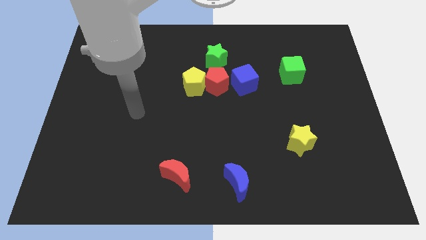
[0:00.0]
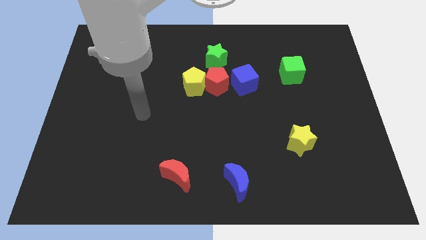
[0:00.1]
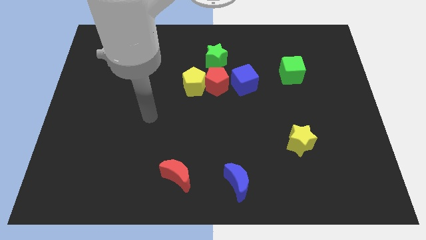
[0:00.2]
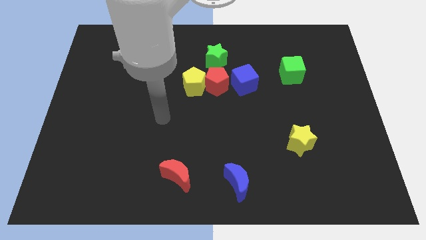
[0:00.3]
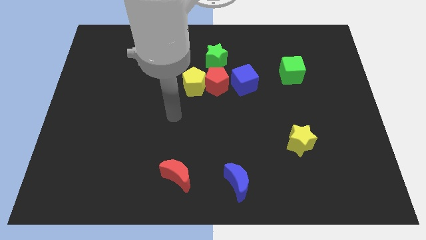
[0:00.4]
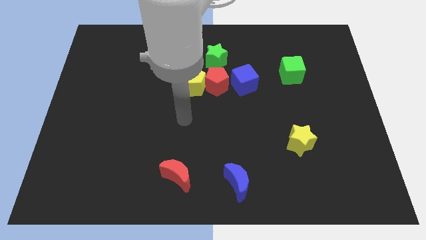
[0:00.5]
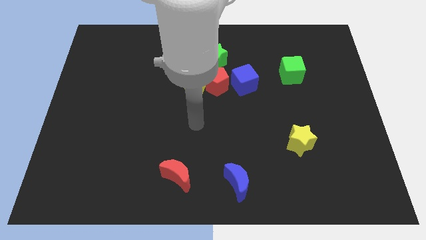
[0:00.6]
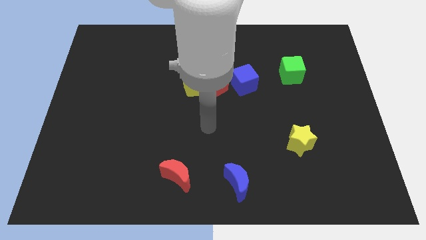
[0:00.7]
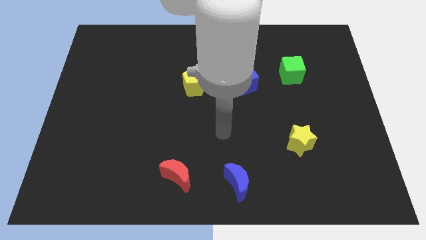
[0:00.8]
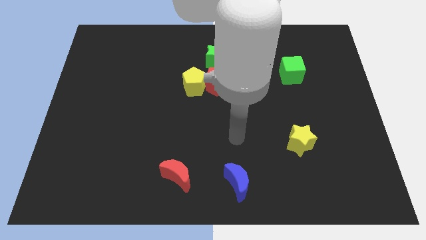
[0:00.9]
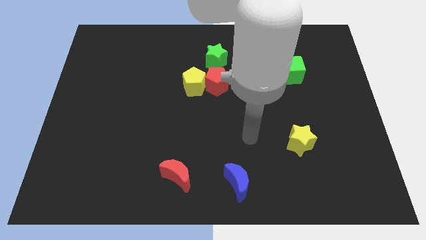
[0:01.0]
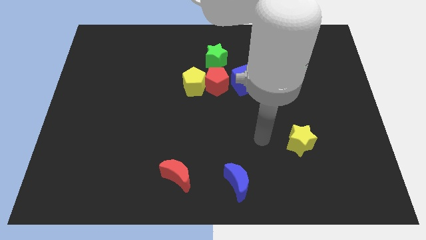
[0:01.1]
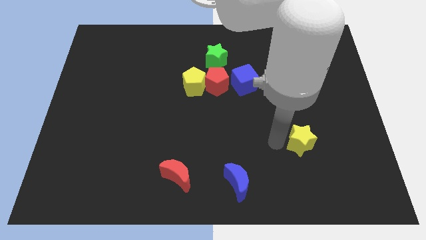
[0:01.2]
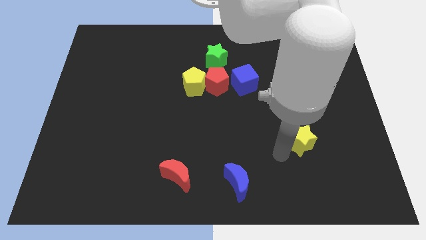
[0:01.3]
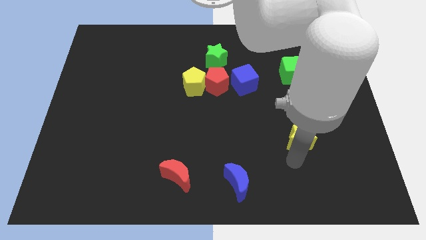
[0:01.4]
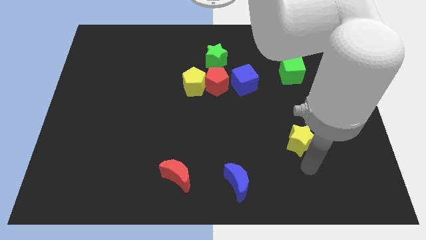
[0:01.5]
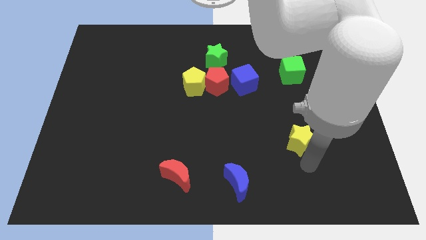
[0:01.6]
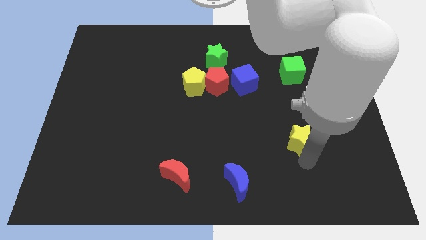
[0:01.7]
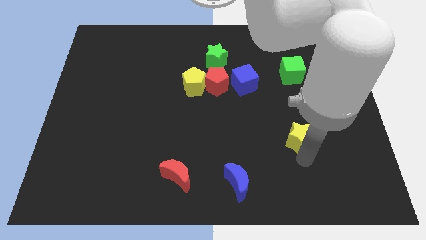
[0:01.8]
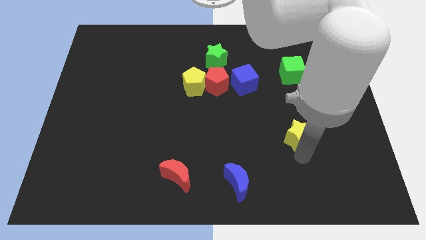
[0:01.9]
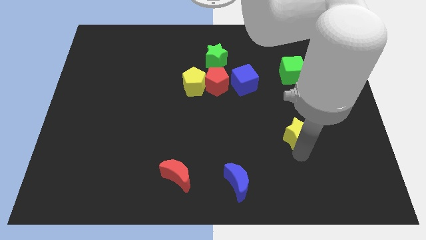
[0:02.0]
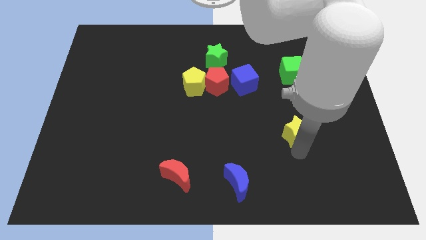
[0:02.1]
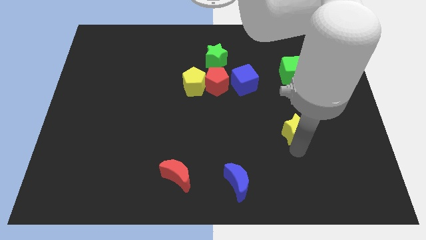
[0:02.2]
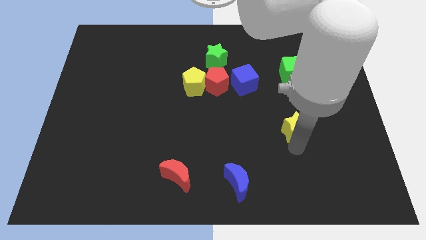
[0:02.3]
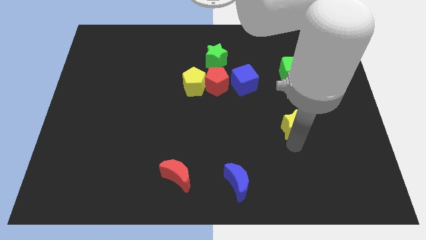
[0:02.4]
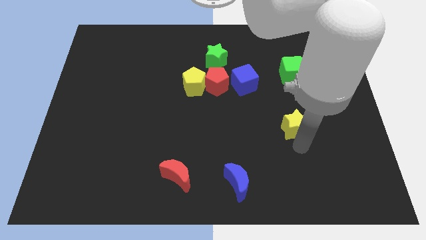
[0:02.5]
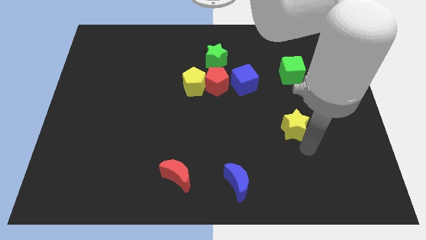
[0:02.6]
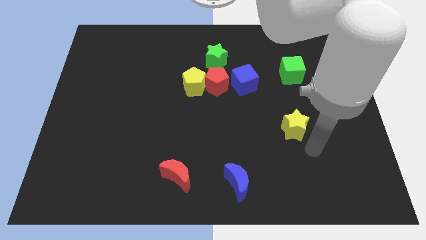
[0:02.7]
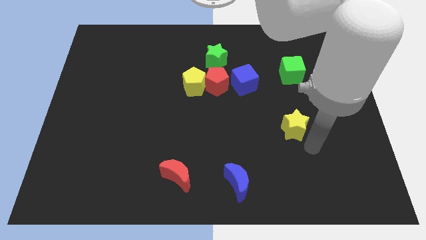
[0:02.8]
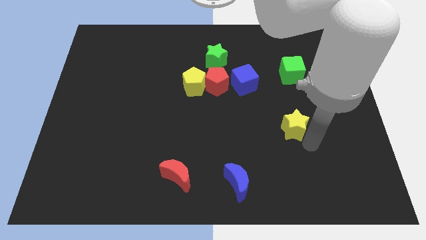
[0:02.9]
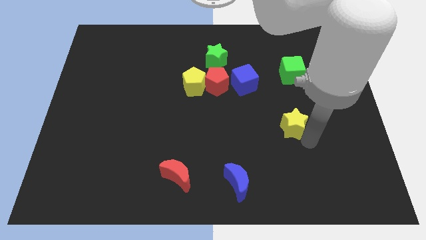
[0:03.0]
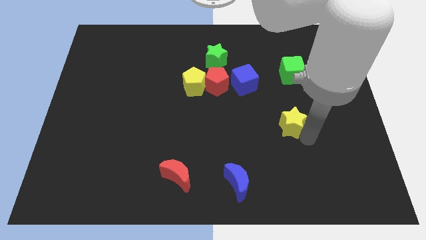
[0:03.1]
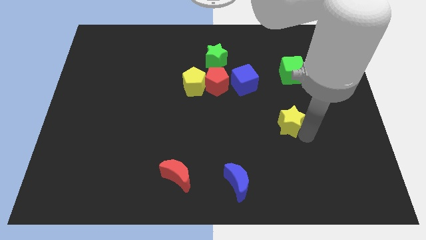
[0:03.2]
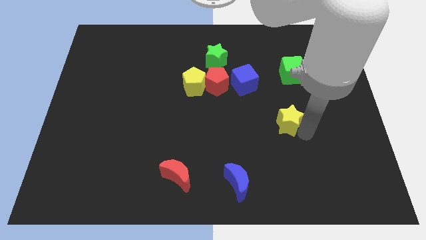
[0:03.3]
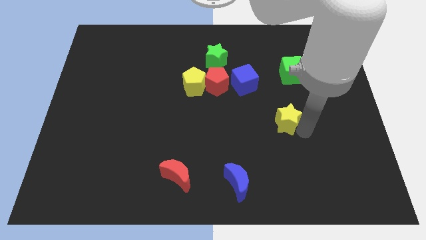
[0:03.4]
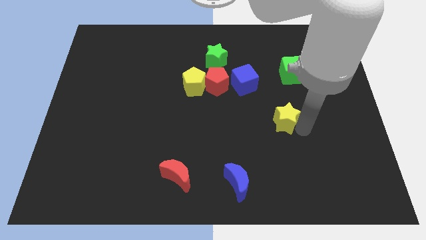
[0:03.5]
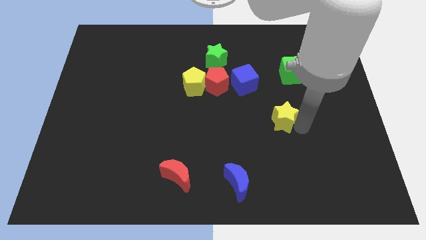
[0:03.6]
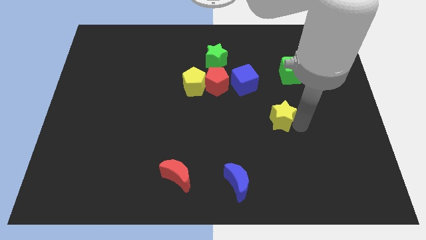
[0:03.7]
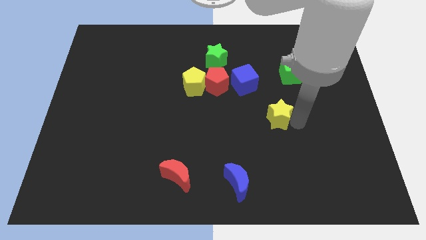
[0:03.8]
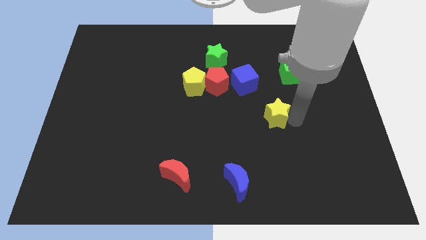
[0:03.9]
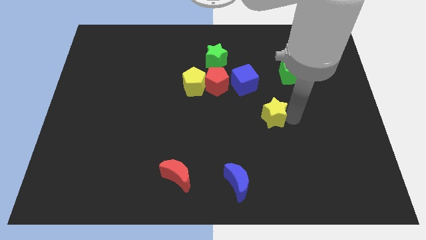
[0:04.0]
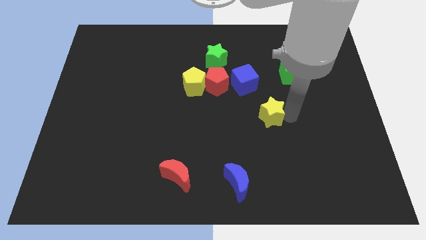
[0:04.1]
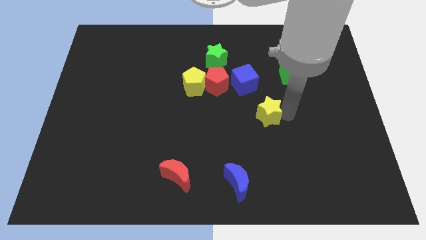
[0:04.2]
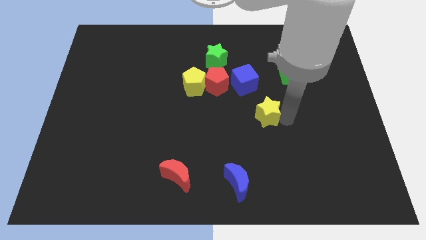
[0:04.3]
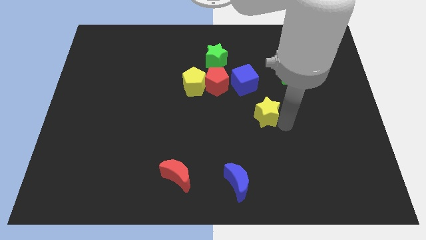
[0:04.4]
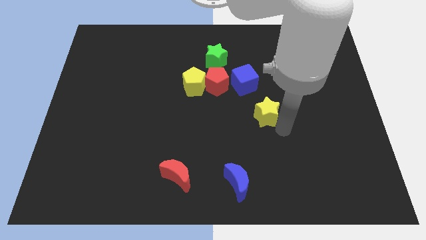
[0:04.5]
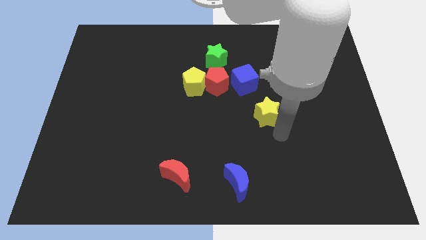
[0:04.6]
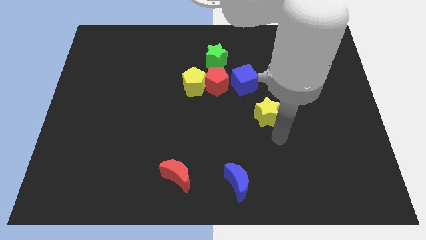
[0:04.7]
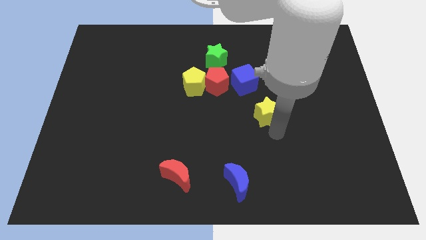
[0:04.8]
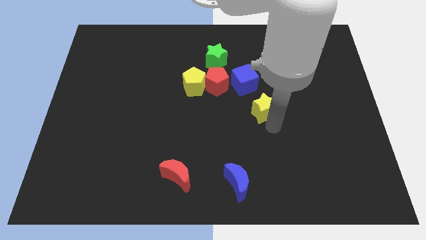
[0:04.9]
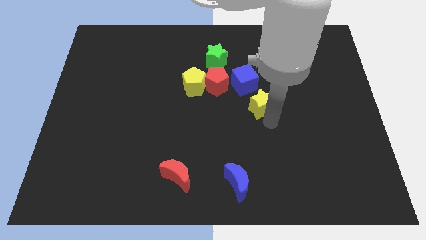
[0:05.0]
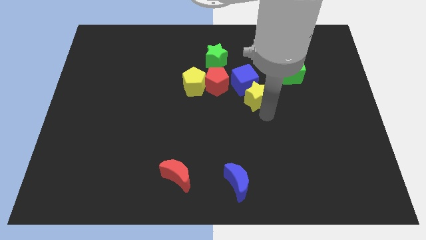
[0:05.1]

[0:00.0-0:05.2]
put the yellow star next to the blue cube

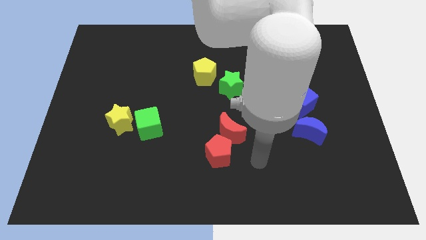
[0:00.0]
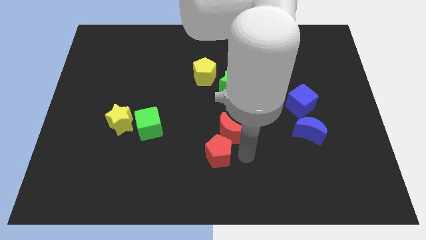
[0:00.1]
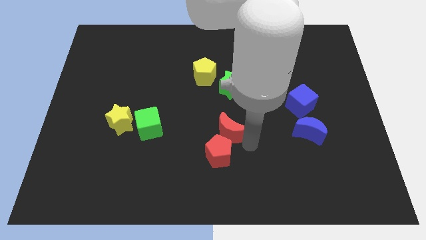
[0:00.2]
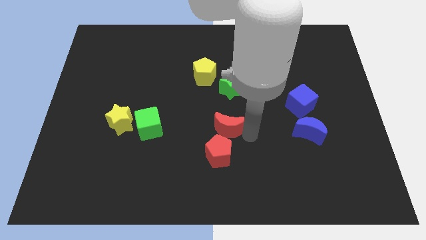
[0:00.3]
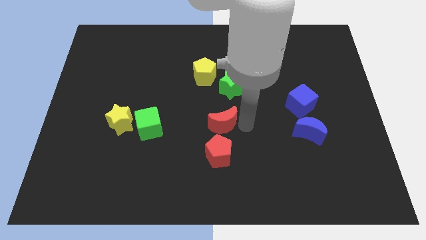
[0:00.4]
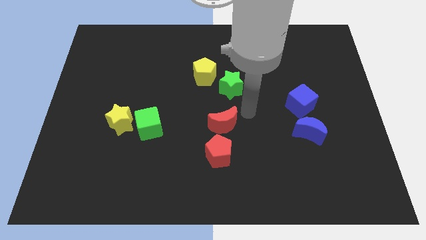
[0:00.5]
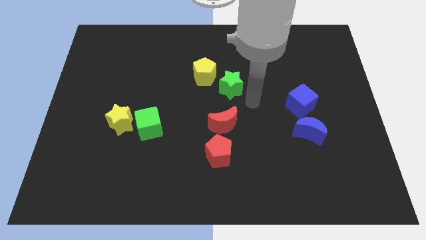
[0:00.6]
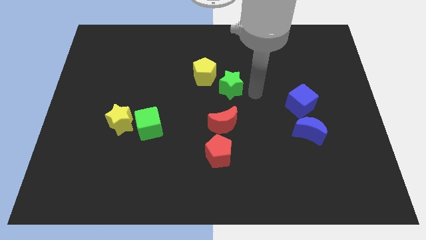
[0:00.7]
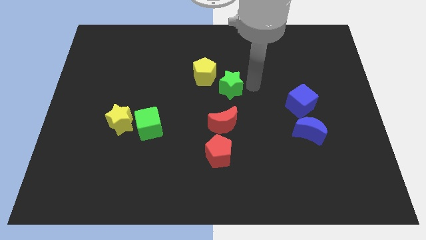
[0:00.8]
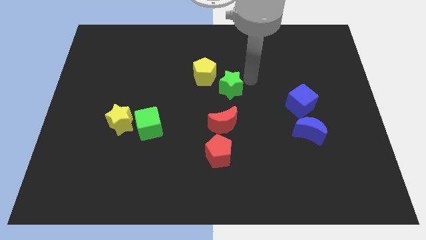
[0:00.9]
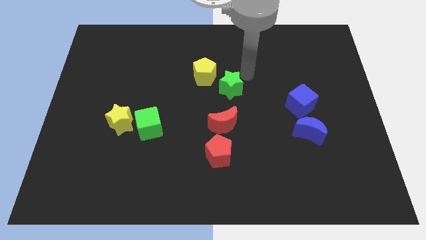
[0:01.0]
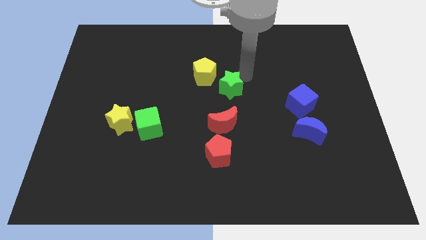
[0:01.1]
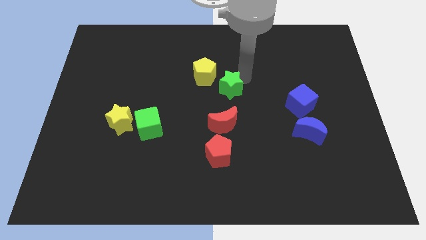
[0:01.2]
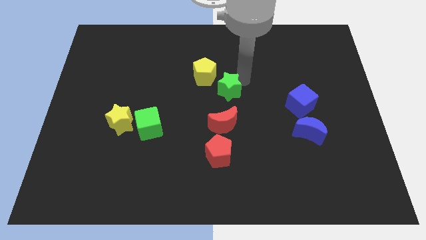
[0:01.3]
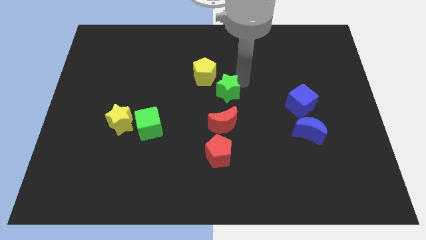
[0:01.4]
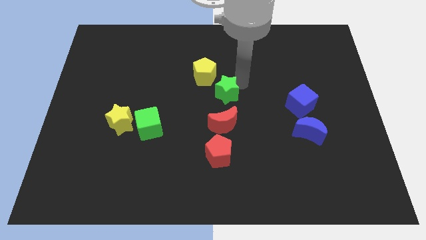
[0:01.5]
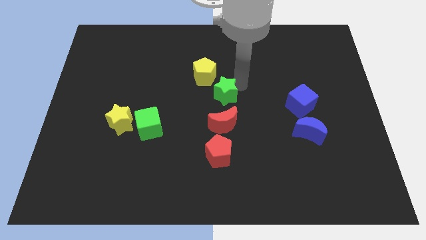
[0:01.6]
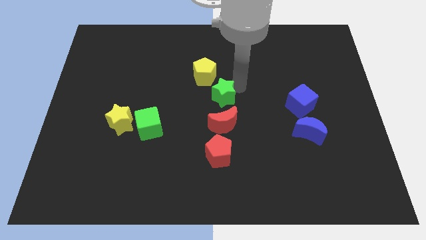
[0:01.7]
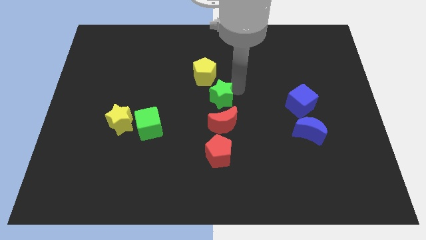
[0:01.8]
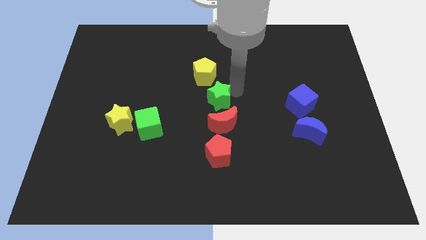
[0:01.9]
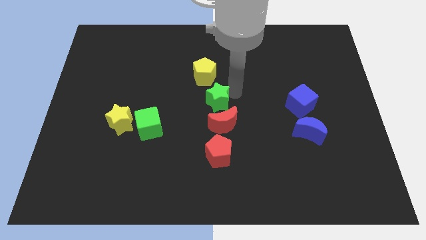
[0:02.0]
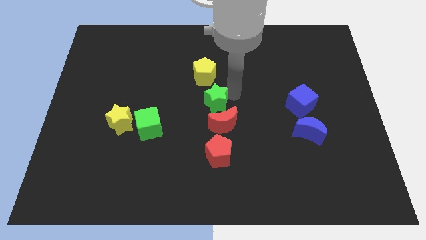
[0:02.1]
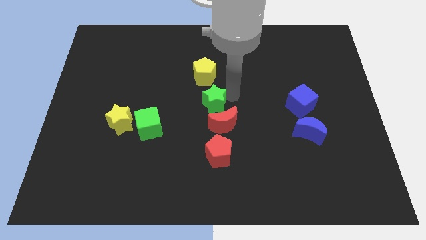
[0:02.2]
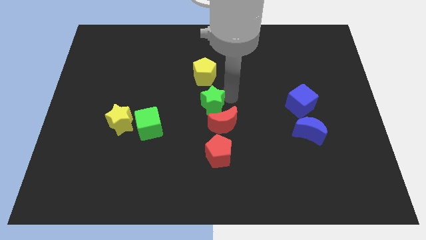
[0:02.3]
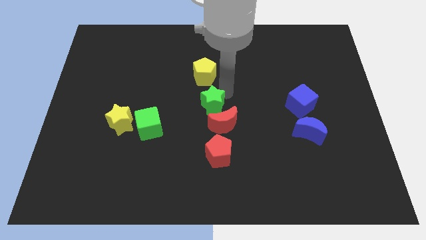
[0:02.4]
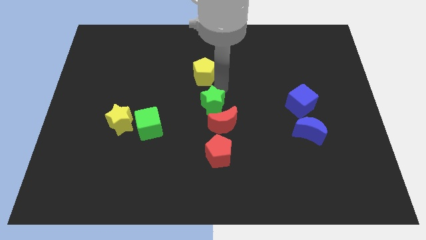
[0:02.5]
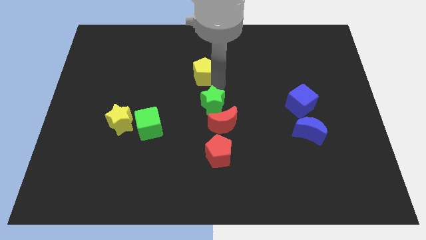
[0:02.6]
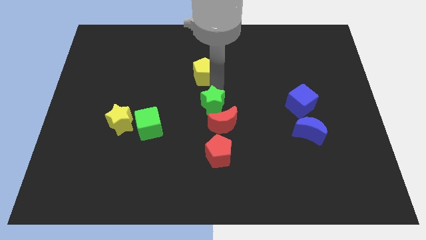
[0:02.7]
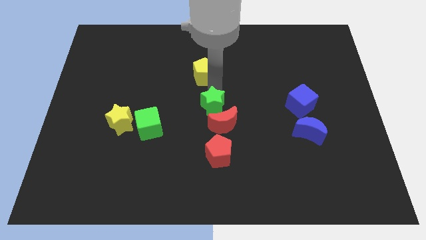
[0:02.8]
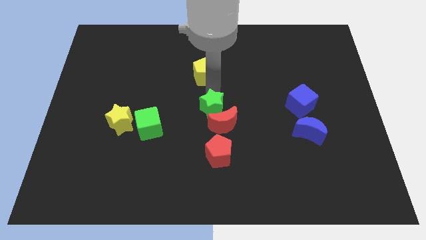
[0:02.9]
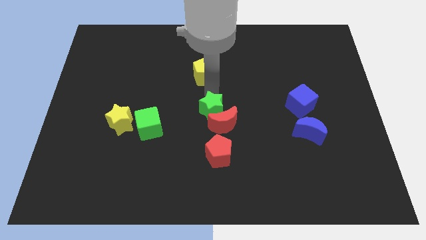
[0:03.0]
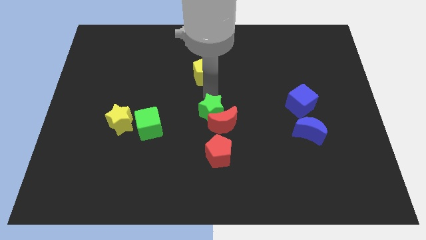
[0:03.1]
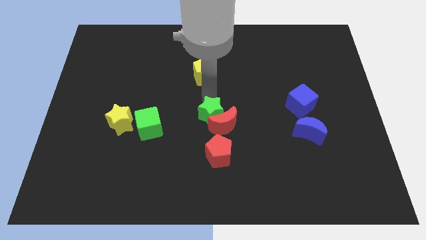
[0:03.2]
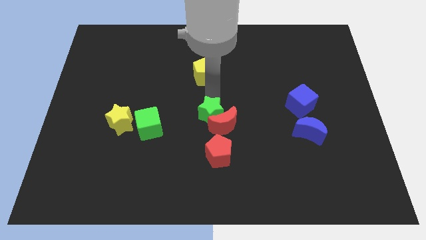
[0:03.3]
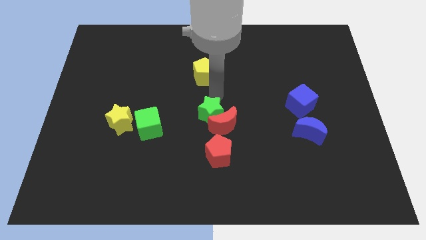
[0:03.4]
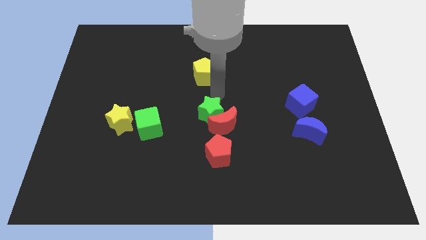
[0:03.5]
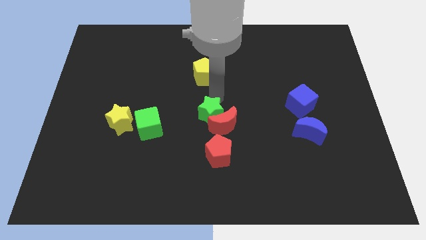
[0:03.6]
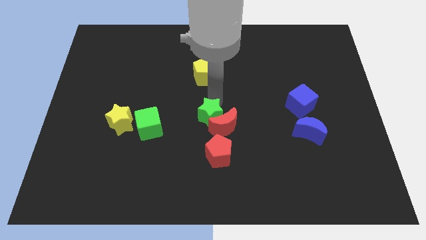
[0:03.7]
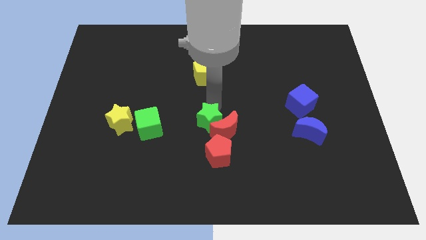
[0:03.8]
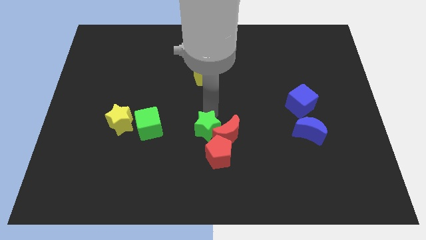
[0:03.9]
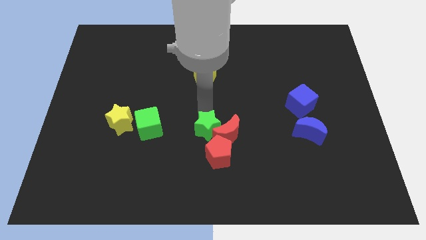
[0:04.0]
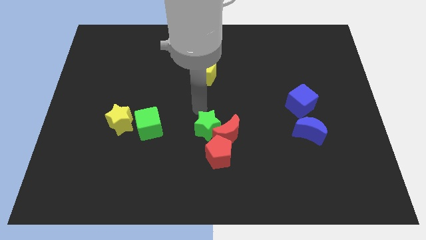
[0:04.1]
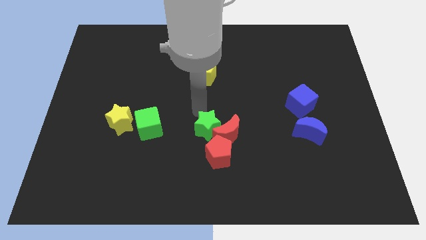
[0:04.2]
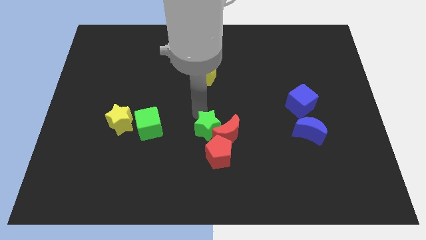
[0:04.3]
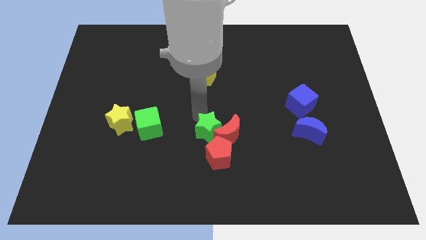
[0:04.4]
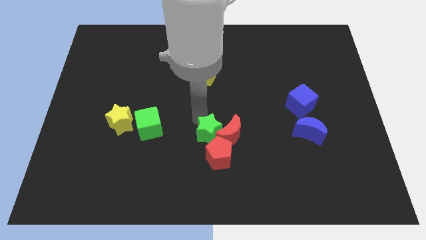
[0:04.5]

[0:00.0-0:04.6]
push the green star next to the red pentagon
